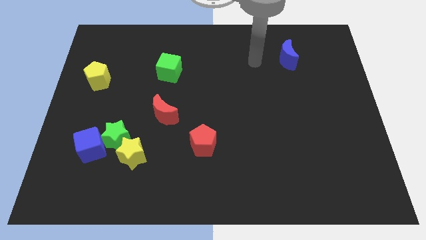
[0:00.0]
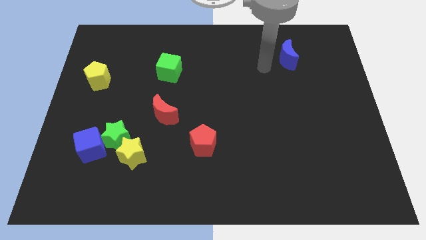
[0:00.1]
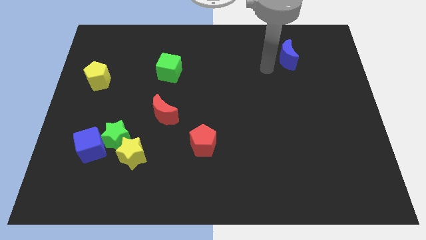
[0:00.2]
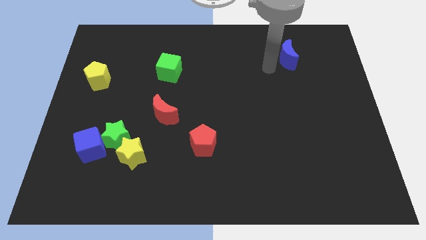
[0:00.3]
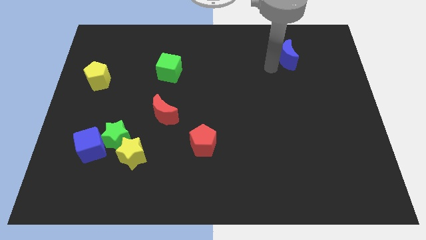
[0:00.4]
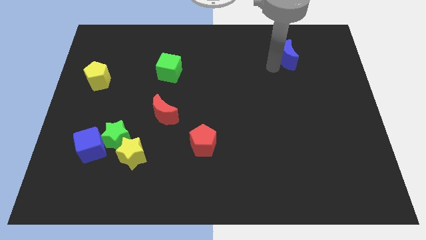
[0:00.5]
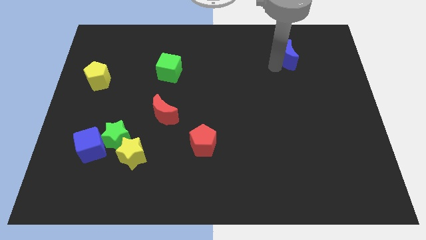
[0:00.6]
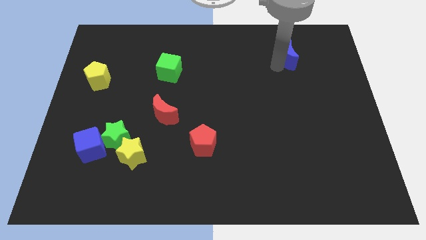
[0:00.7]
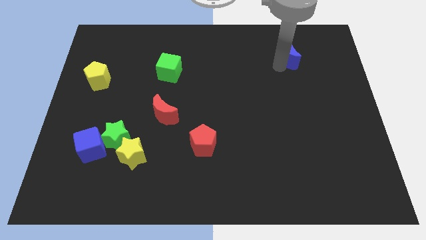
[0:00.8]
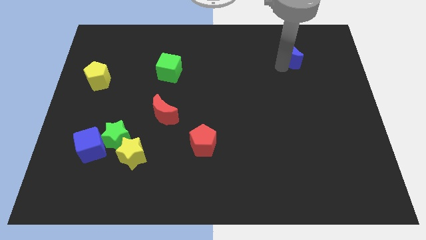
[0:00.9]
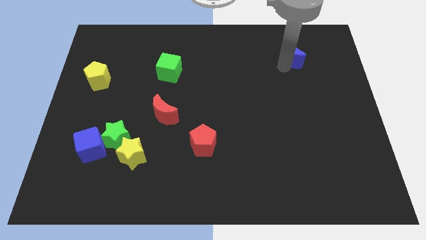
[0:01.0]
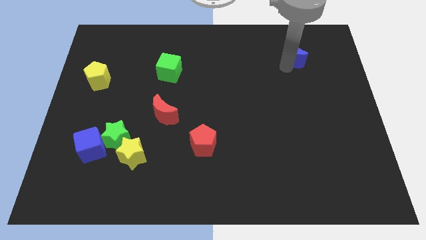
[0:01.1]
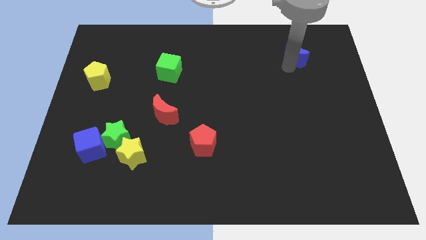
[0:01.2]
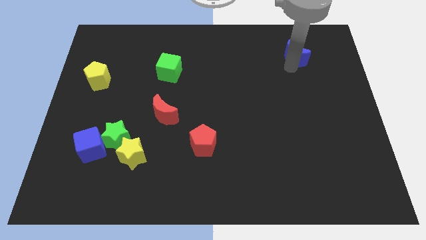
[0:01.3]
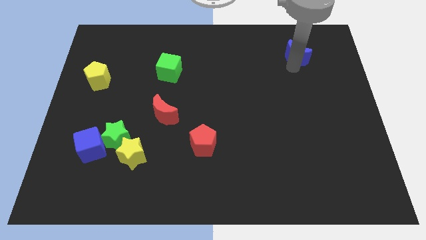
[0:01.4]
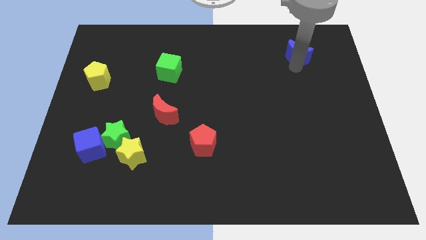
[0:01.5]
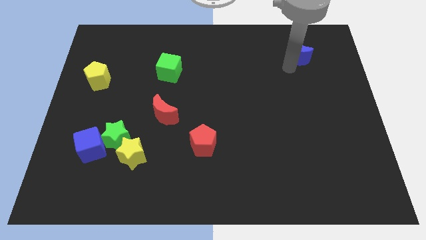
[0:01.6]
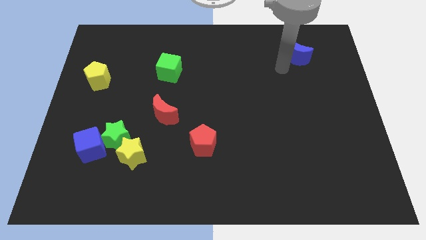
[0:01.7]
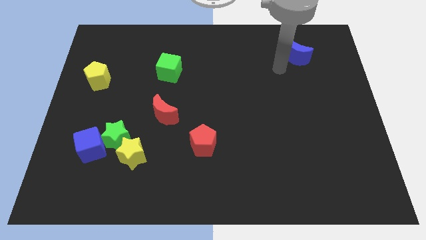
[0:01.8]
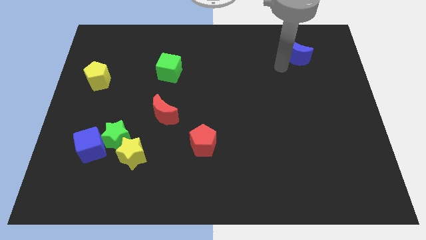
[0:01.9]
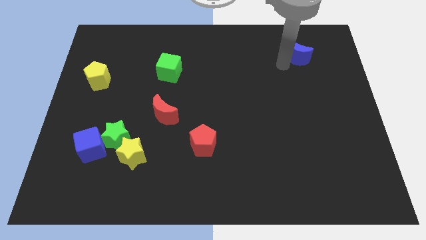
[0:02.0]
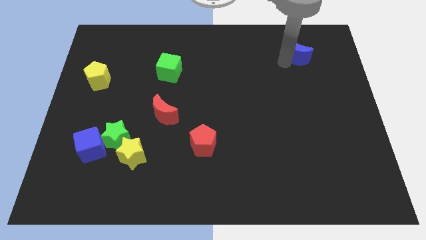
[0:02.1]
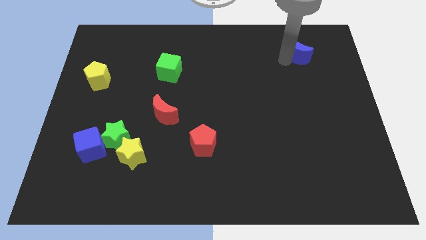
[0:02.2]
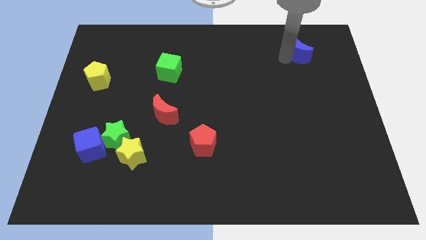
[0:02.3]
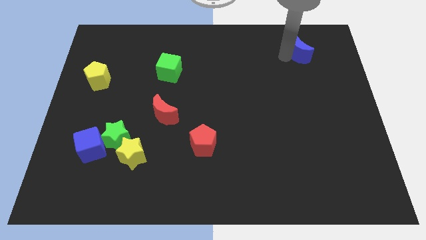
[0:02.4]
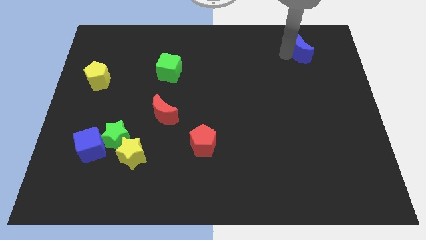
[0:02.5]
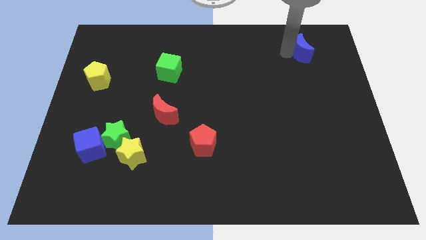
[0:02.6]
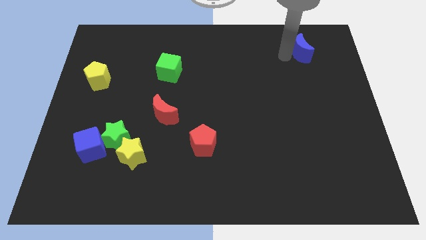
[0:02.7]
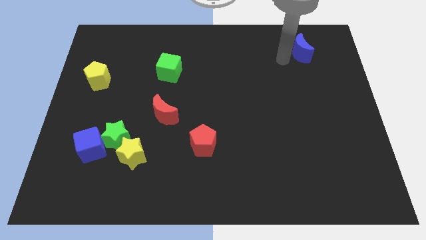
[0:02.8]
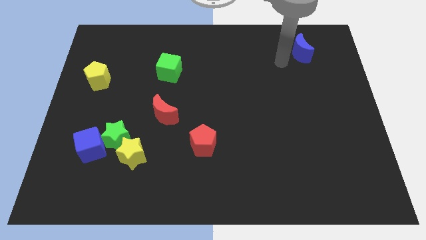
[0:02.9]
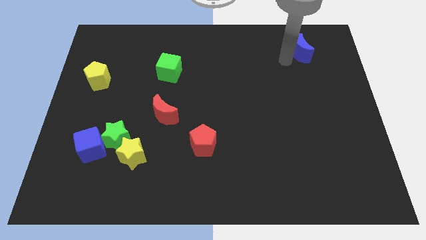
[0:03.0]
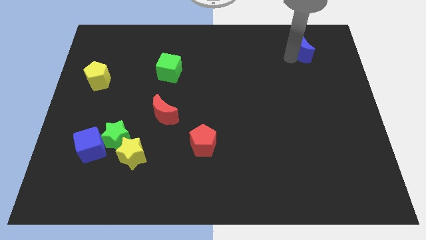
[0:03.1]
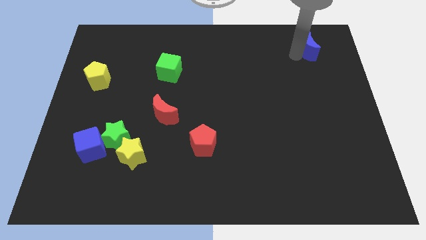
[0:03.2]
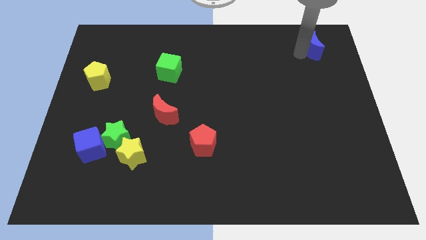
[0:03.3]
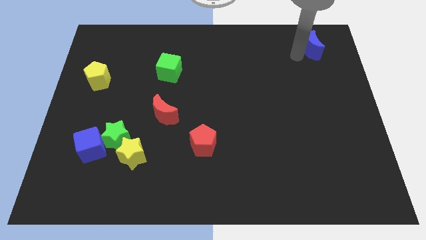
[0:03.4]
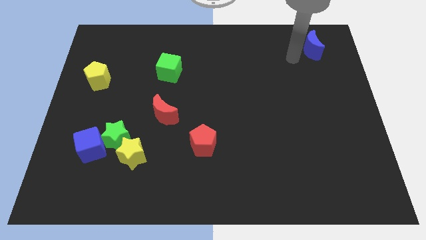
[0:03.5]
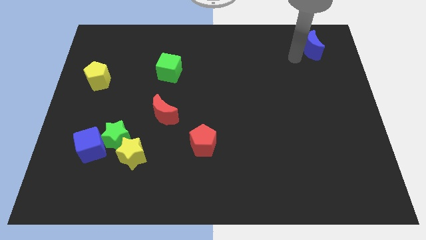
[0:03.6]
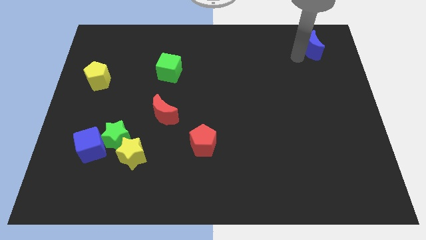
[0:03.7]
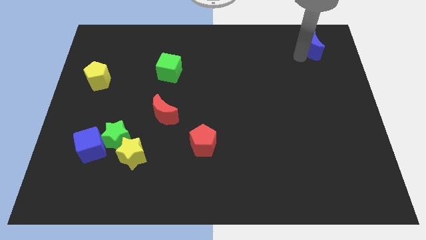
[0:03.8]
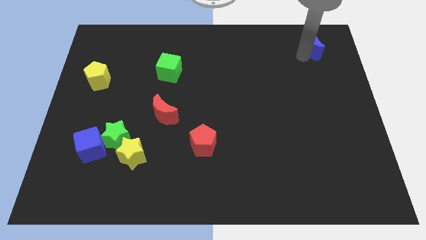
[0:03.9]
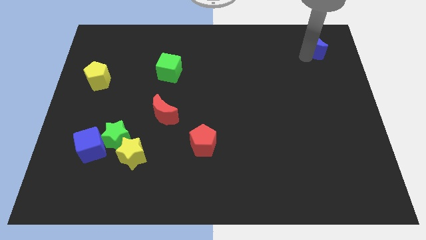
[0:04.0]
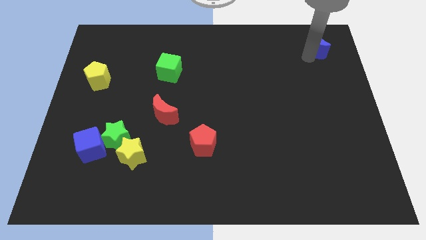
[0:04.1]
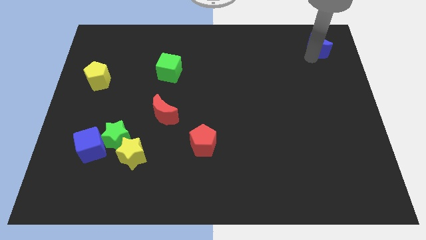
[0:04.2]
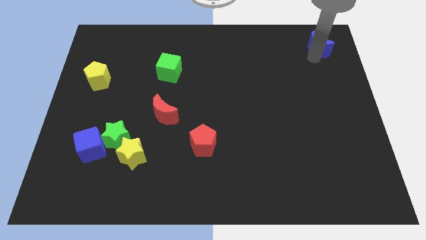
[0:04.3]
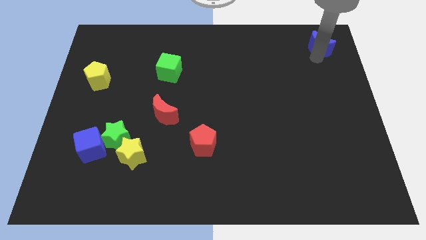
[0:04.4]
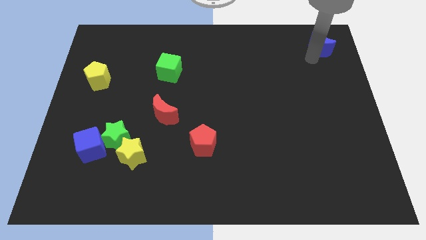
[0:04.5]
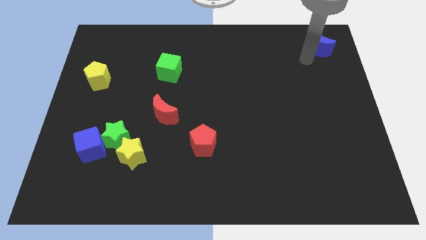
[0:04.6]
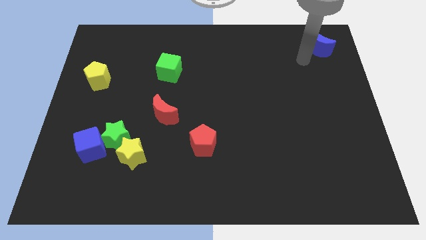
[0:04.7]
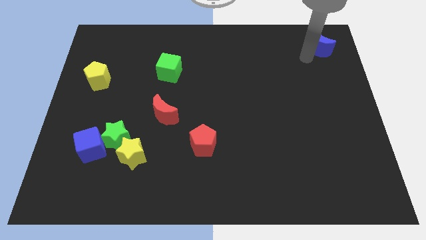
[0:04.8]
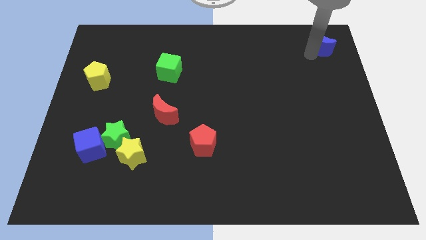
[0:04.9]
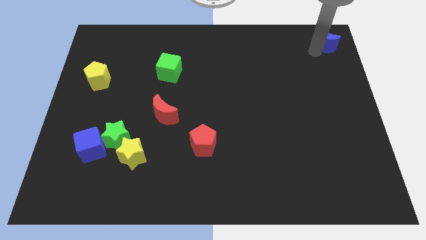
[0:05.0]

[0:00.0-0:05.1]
put the blue moon to the top right of the board

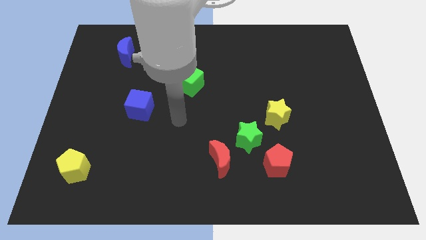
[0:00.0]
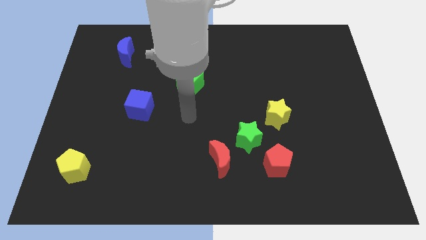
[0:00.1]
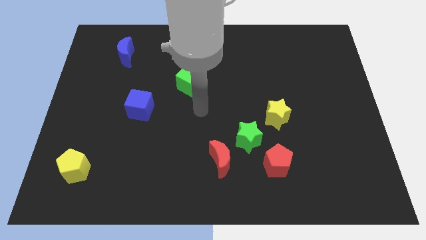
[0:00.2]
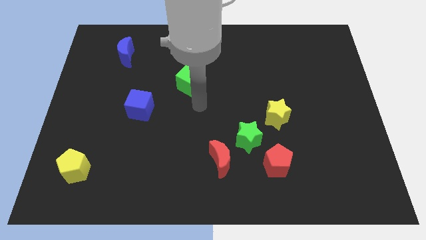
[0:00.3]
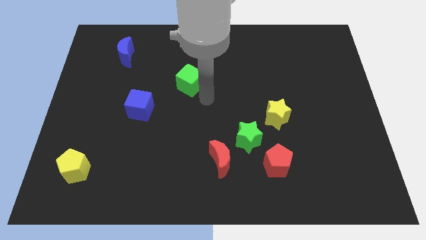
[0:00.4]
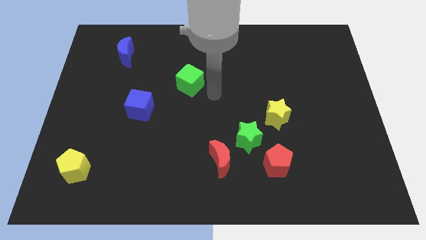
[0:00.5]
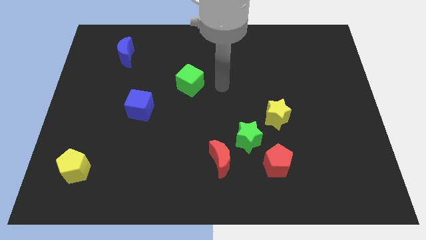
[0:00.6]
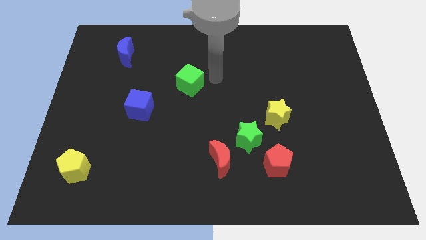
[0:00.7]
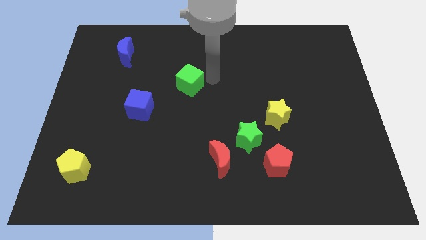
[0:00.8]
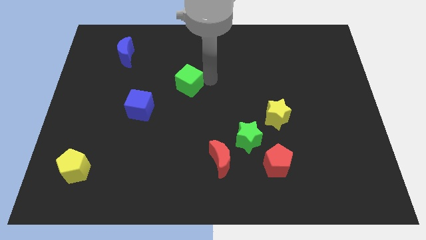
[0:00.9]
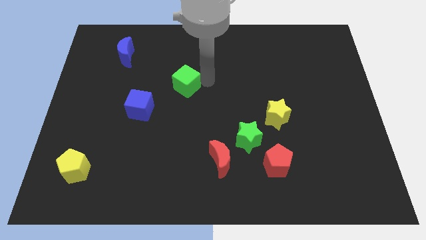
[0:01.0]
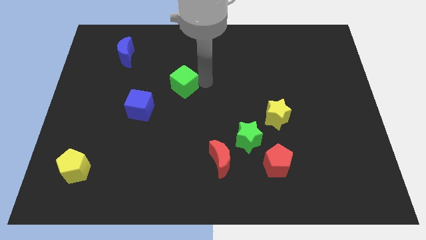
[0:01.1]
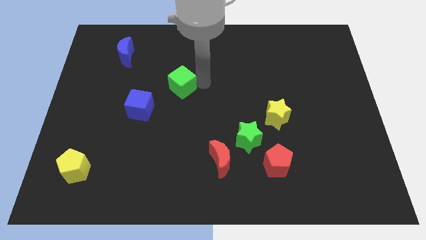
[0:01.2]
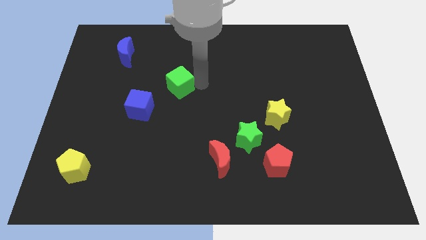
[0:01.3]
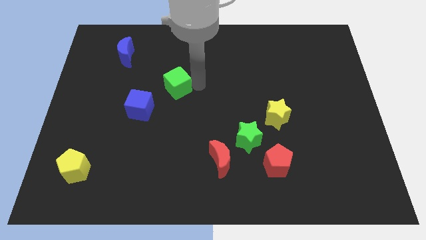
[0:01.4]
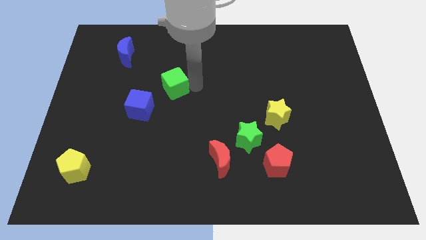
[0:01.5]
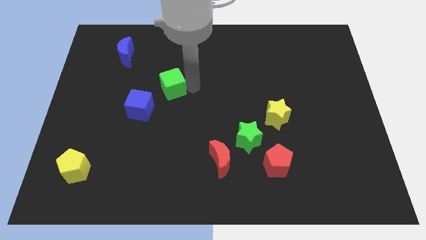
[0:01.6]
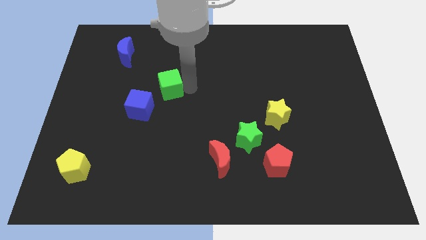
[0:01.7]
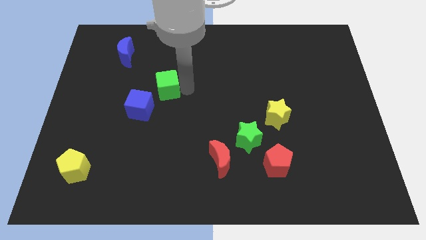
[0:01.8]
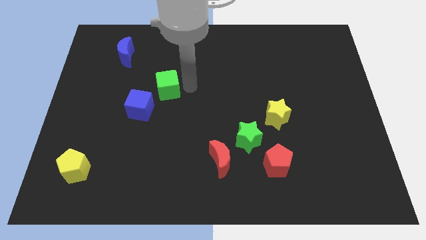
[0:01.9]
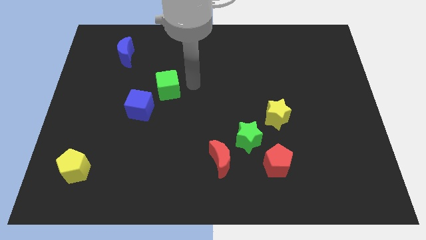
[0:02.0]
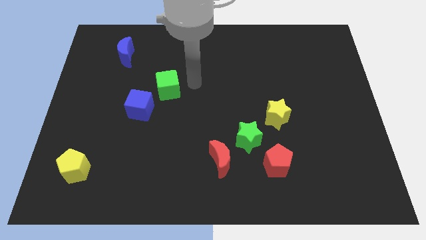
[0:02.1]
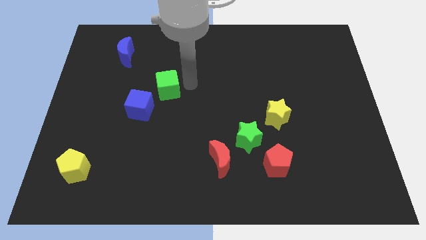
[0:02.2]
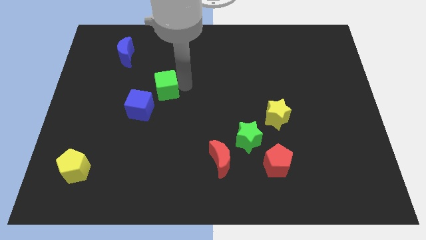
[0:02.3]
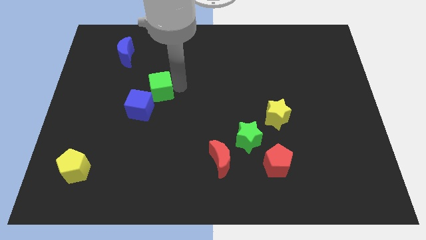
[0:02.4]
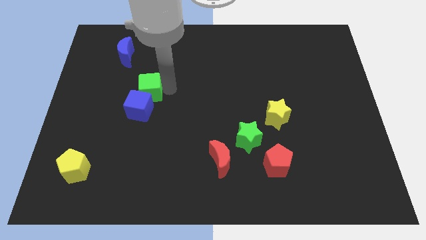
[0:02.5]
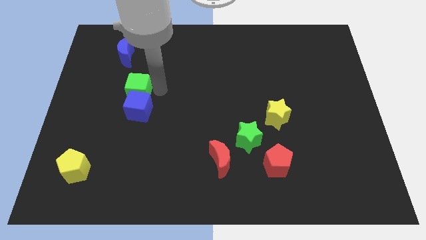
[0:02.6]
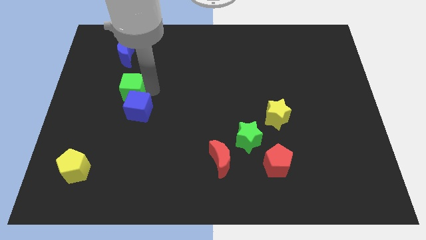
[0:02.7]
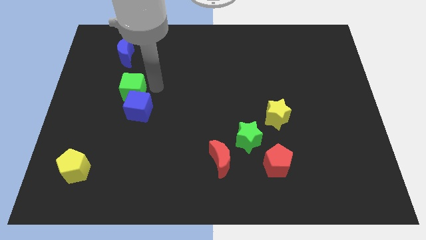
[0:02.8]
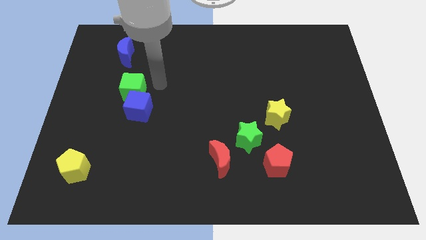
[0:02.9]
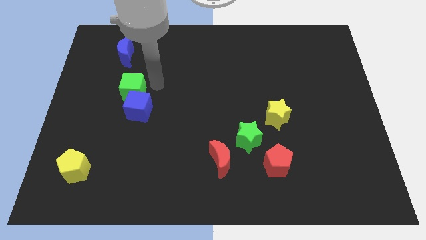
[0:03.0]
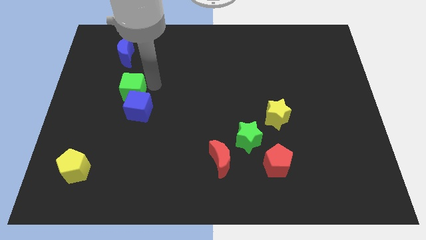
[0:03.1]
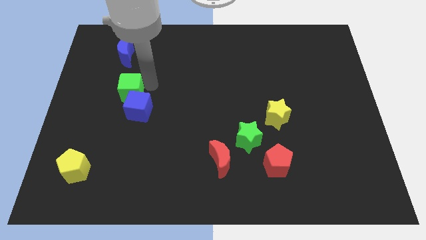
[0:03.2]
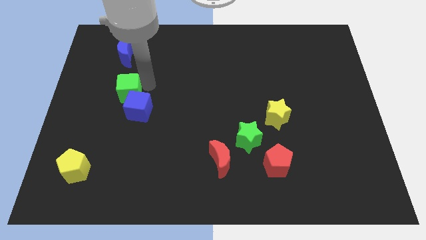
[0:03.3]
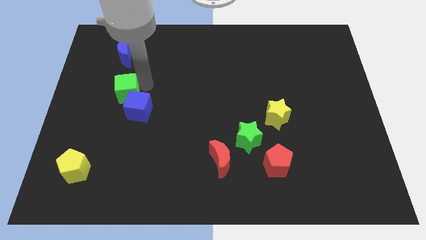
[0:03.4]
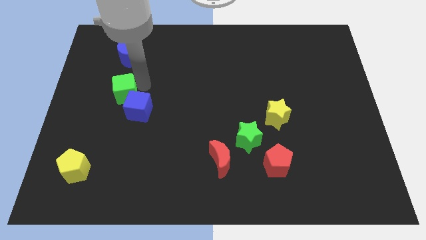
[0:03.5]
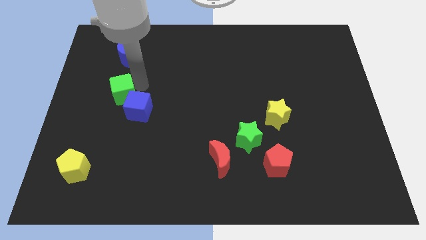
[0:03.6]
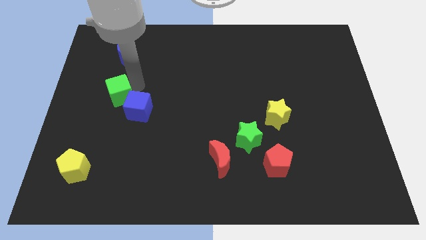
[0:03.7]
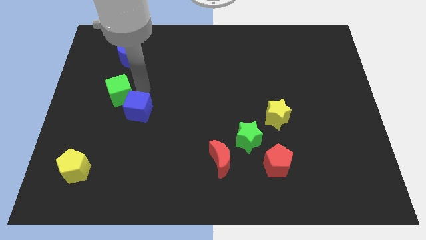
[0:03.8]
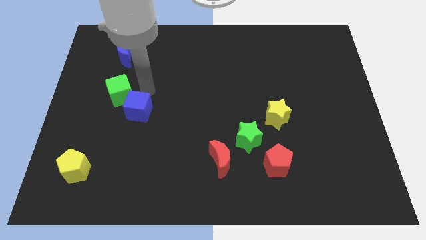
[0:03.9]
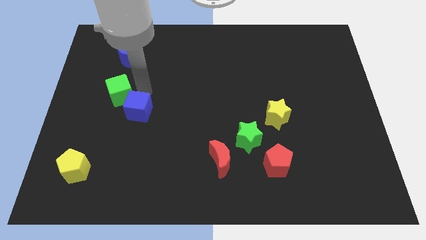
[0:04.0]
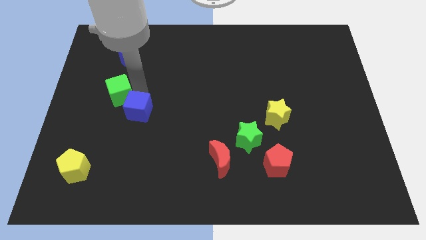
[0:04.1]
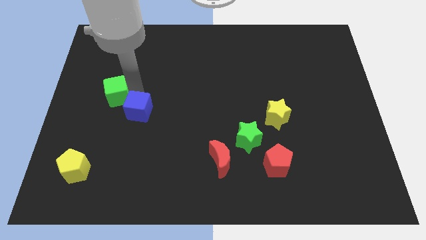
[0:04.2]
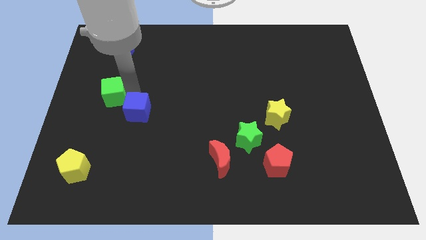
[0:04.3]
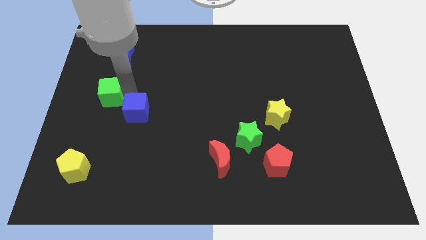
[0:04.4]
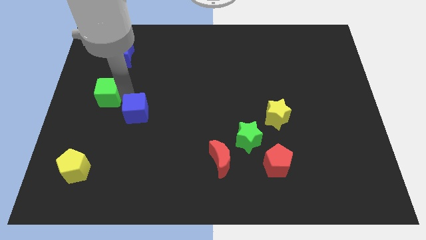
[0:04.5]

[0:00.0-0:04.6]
move the green cube to the left side
